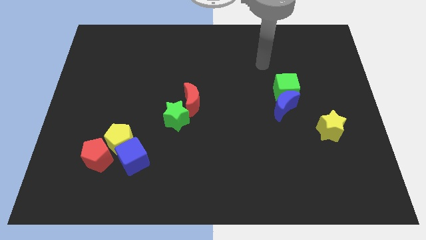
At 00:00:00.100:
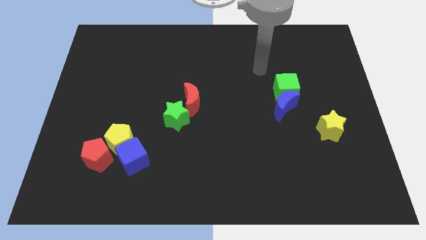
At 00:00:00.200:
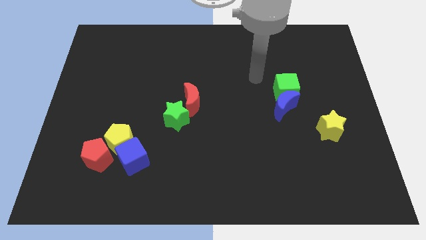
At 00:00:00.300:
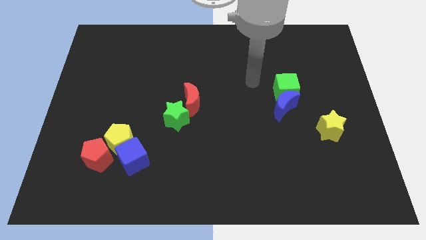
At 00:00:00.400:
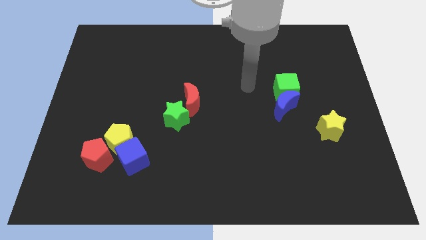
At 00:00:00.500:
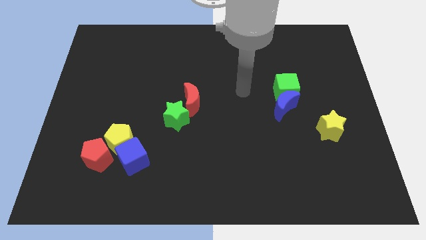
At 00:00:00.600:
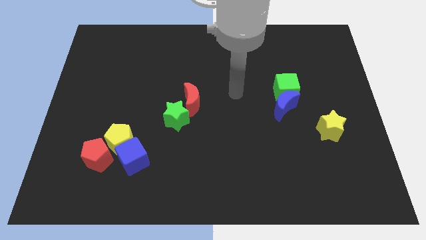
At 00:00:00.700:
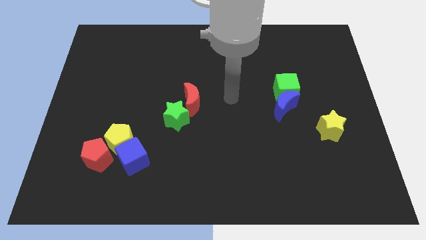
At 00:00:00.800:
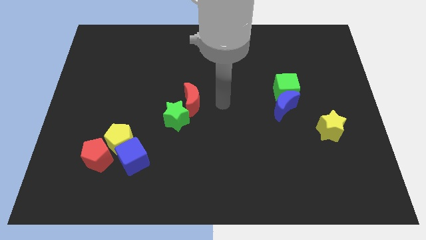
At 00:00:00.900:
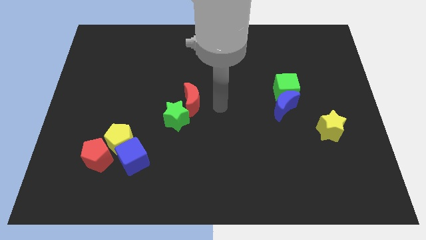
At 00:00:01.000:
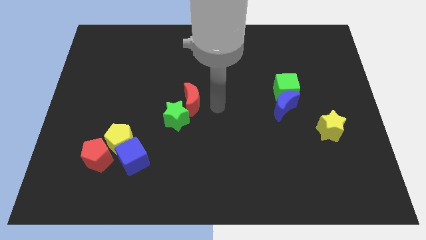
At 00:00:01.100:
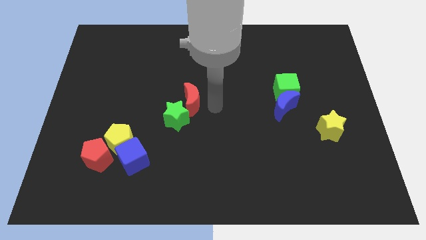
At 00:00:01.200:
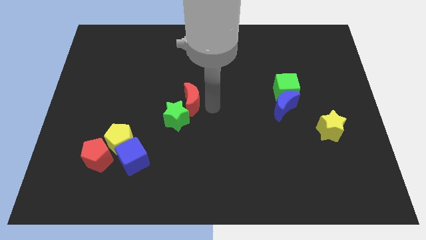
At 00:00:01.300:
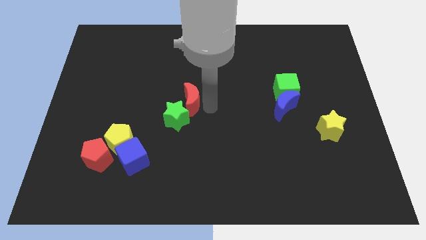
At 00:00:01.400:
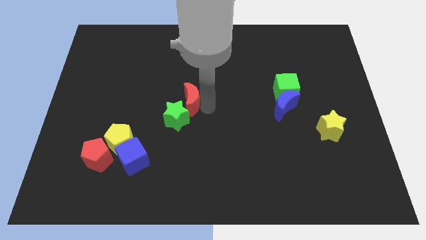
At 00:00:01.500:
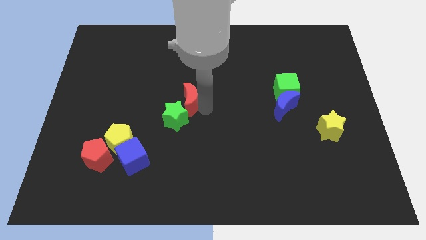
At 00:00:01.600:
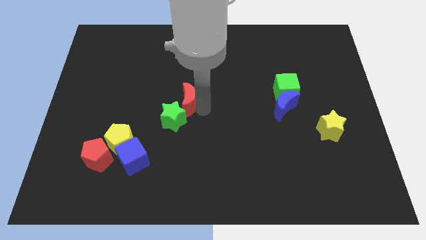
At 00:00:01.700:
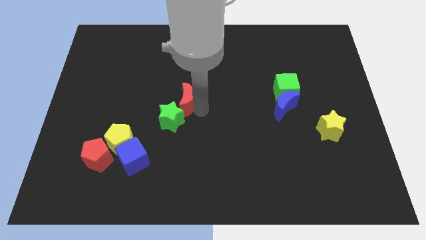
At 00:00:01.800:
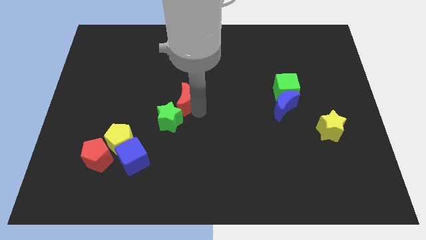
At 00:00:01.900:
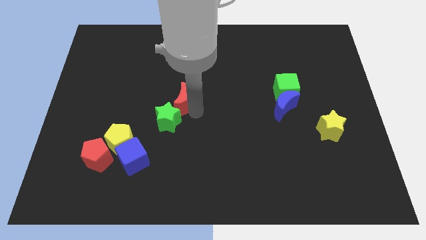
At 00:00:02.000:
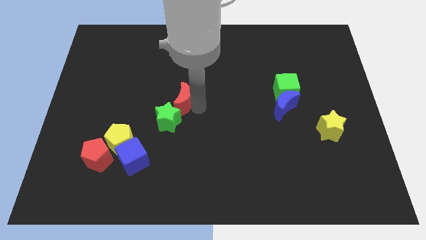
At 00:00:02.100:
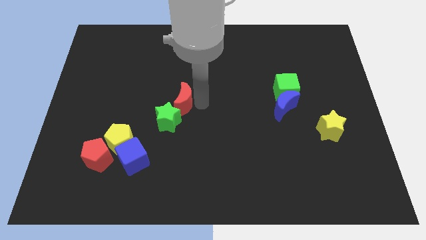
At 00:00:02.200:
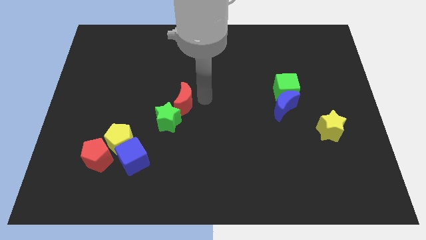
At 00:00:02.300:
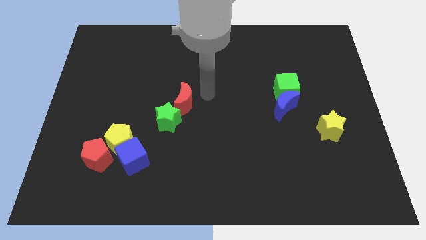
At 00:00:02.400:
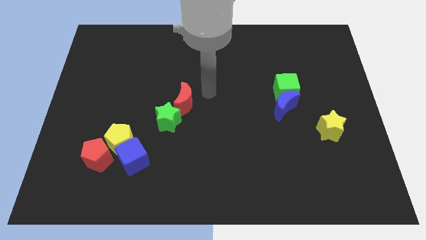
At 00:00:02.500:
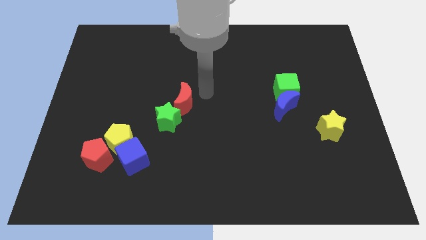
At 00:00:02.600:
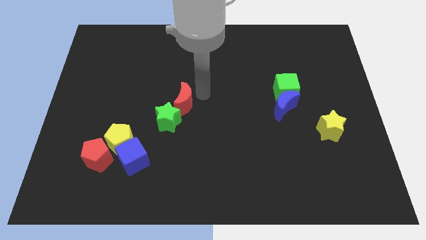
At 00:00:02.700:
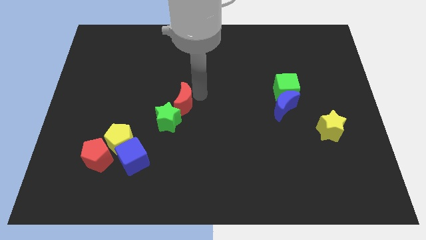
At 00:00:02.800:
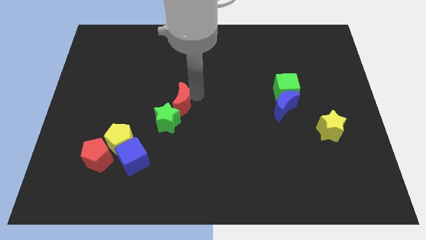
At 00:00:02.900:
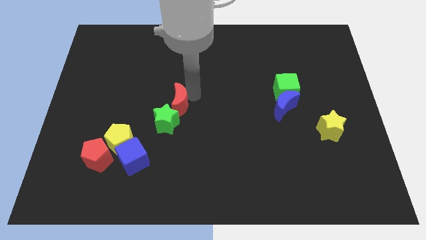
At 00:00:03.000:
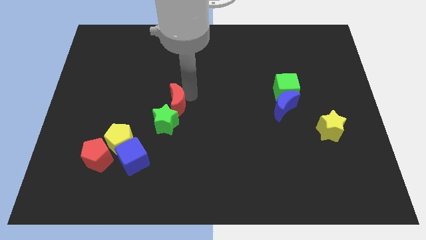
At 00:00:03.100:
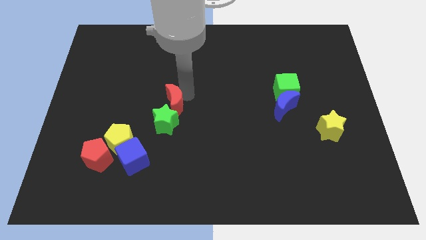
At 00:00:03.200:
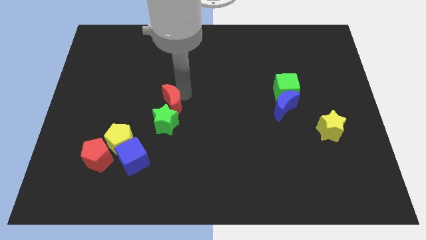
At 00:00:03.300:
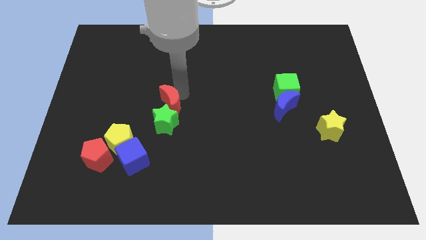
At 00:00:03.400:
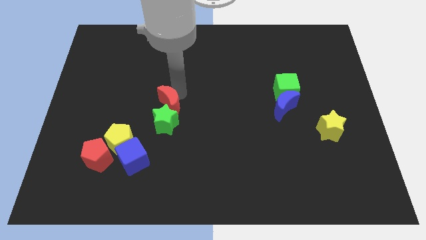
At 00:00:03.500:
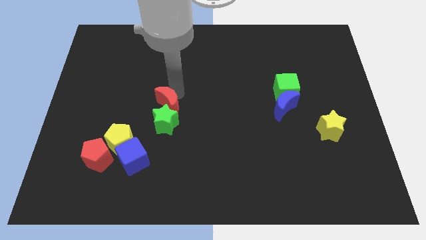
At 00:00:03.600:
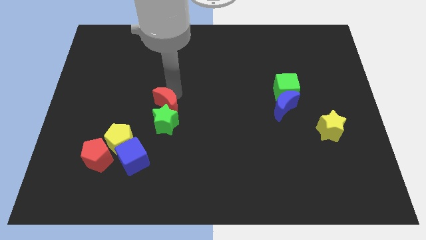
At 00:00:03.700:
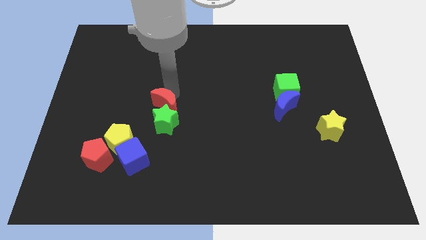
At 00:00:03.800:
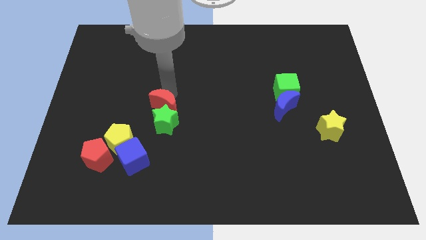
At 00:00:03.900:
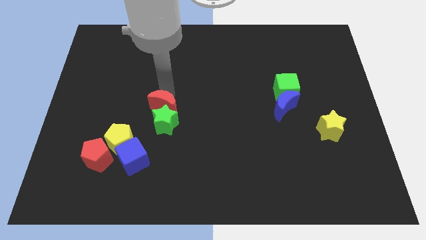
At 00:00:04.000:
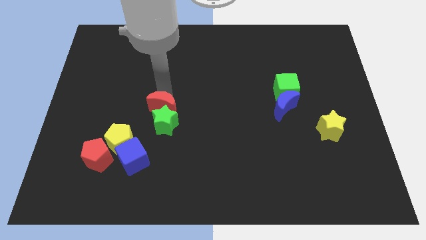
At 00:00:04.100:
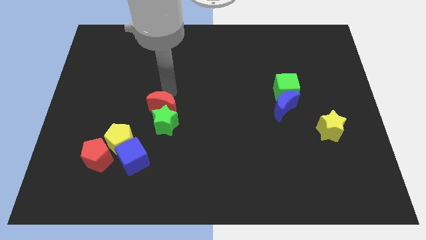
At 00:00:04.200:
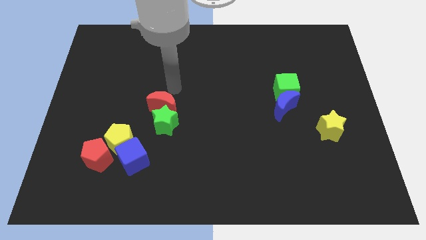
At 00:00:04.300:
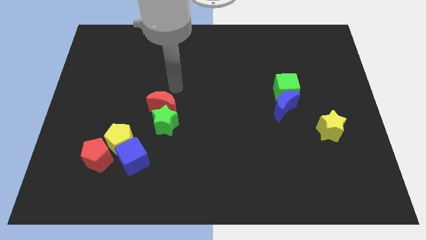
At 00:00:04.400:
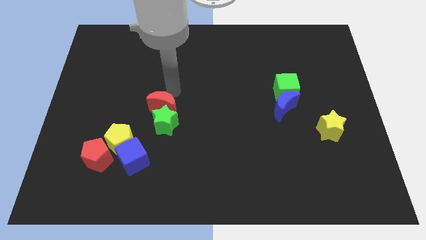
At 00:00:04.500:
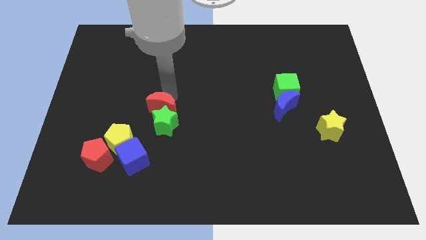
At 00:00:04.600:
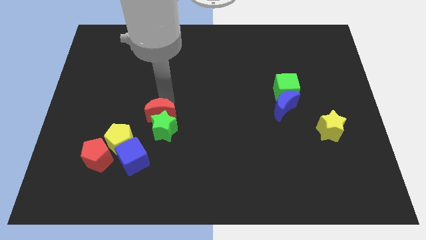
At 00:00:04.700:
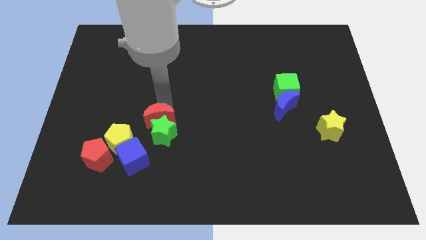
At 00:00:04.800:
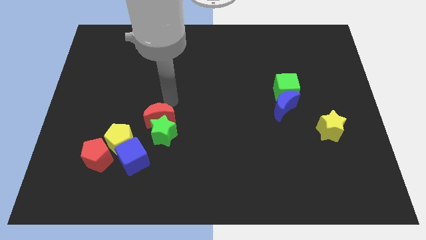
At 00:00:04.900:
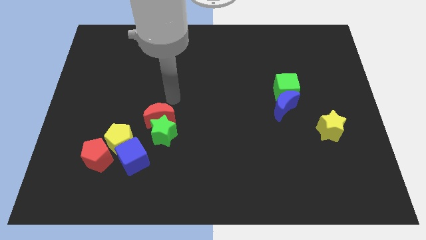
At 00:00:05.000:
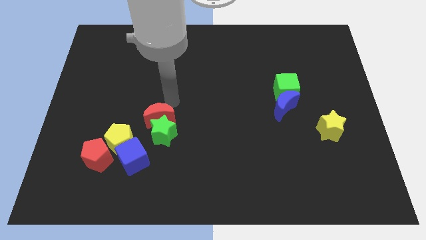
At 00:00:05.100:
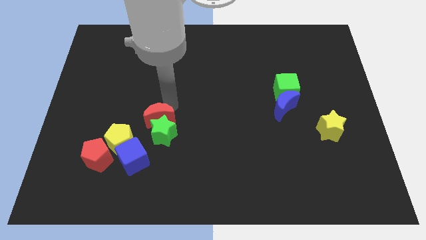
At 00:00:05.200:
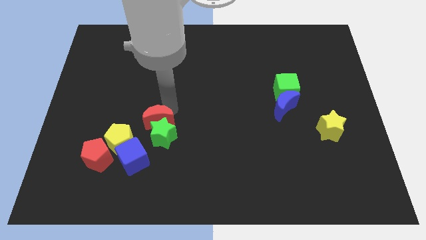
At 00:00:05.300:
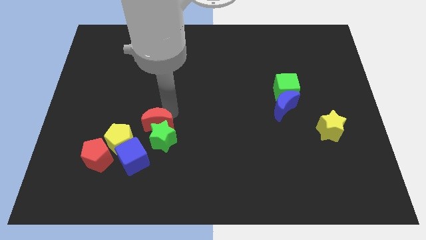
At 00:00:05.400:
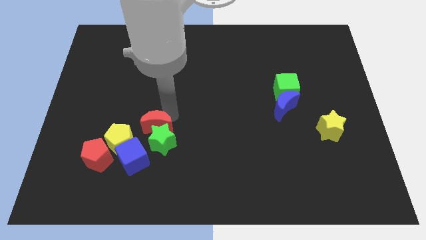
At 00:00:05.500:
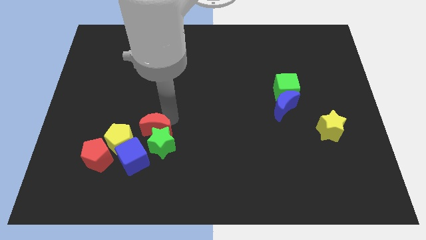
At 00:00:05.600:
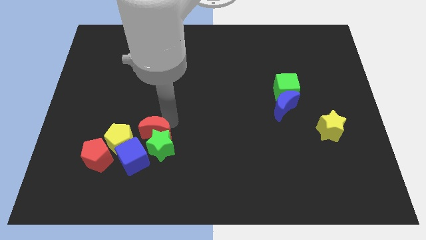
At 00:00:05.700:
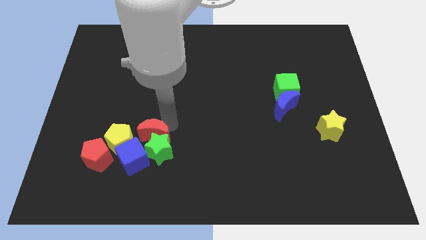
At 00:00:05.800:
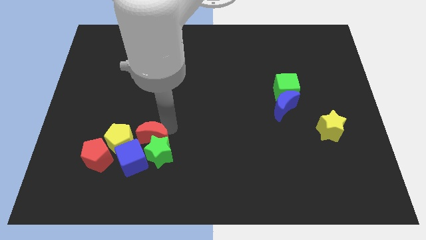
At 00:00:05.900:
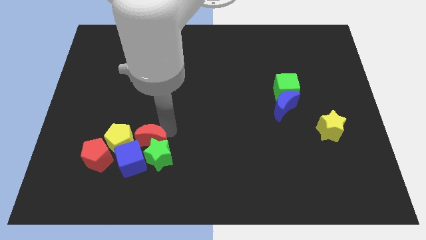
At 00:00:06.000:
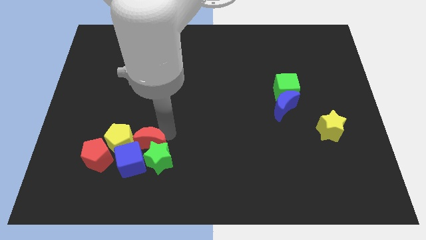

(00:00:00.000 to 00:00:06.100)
move the red moon next to the blue cube
